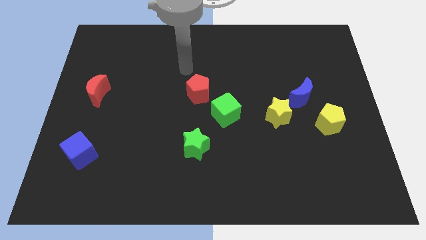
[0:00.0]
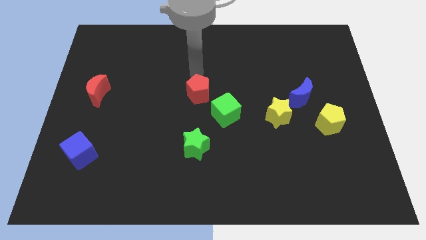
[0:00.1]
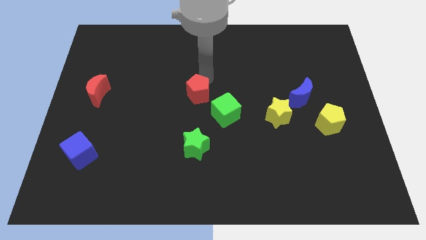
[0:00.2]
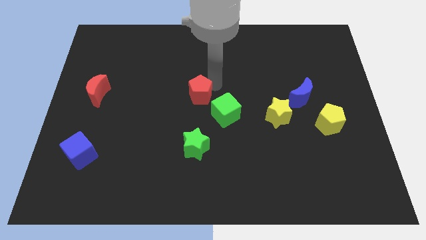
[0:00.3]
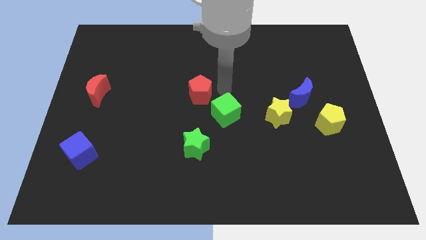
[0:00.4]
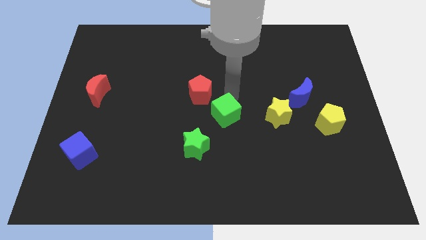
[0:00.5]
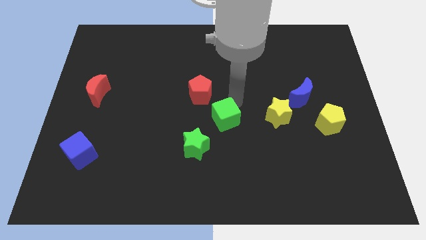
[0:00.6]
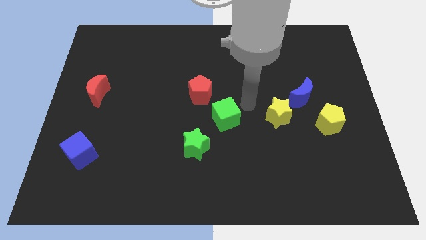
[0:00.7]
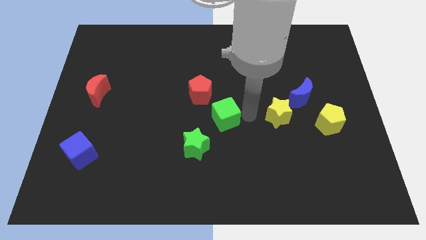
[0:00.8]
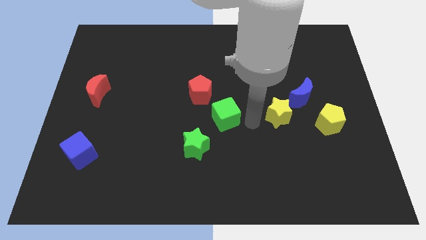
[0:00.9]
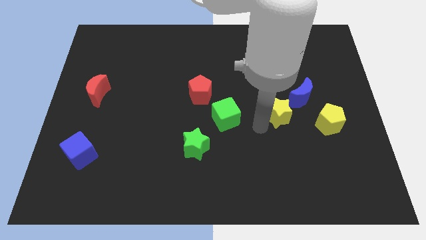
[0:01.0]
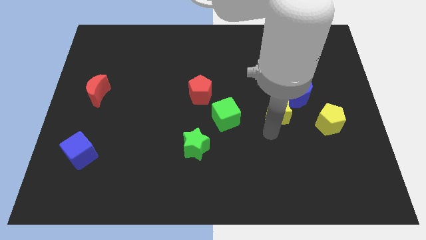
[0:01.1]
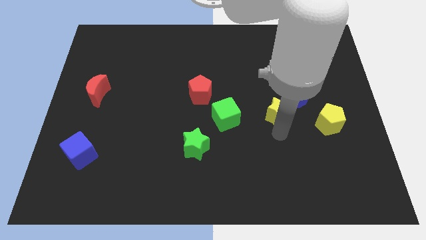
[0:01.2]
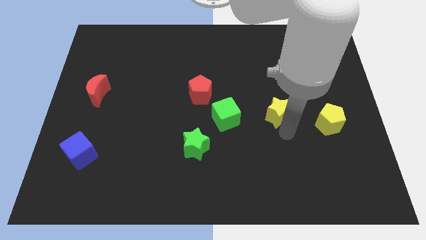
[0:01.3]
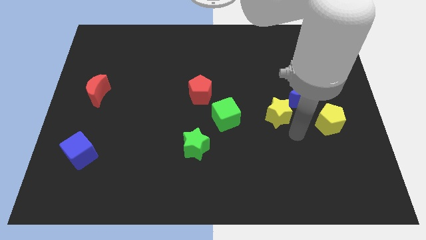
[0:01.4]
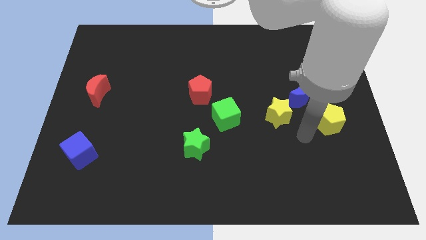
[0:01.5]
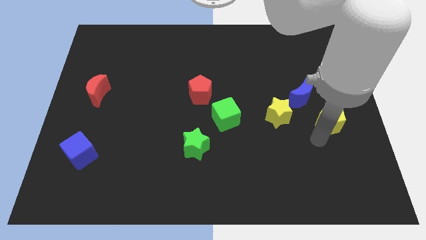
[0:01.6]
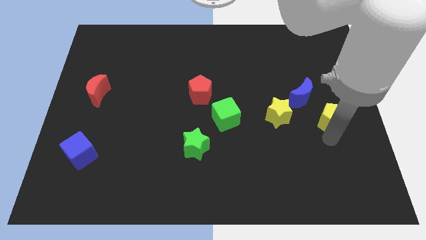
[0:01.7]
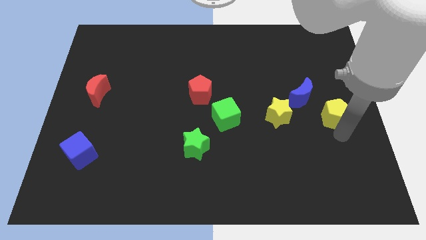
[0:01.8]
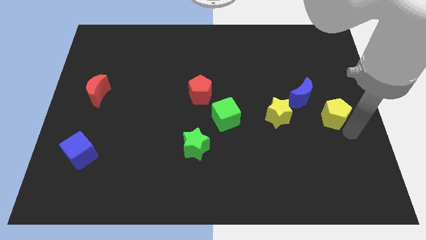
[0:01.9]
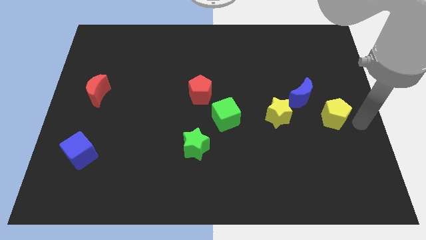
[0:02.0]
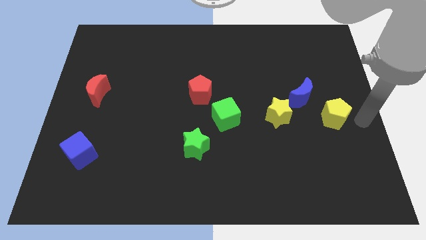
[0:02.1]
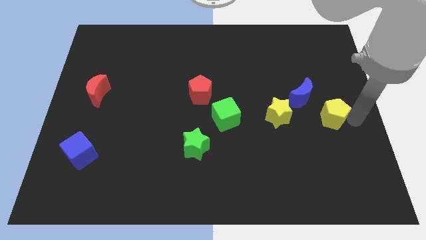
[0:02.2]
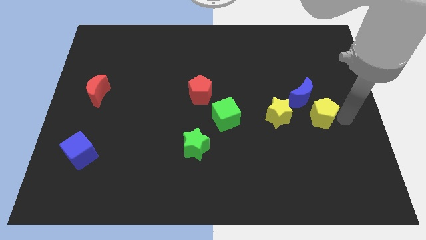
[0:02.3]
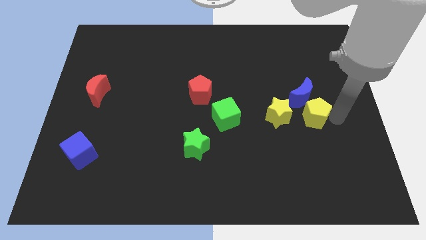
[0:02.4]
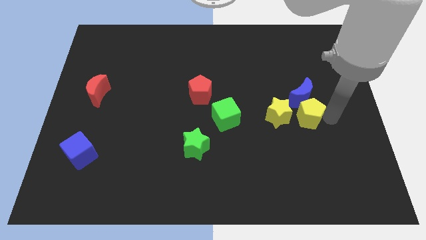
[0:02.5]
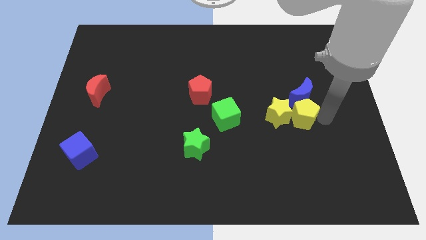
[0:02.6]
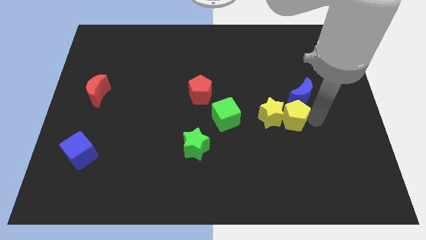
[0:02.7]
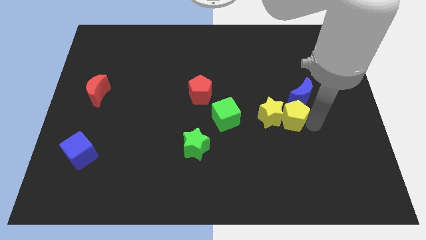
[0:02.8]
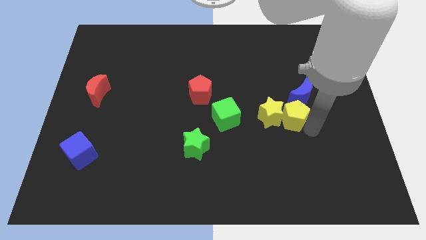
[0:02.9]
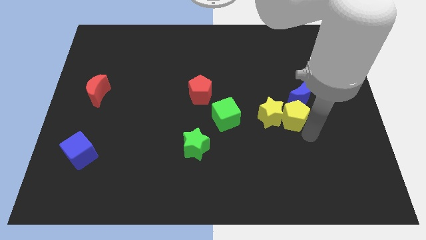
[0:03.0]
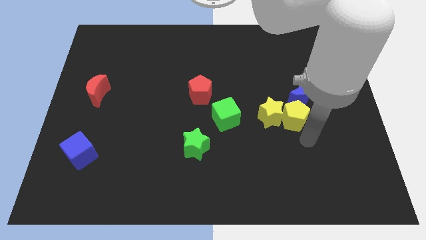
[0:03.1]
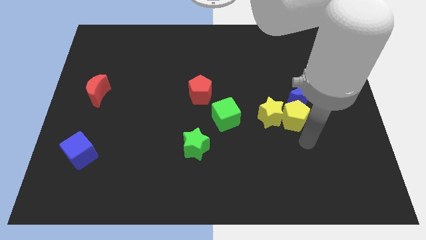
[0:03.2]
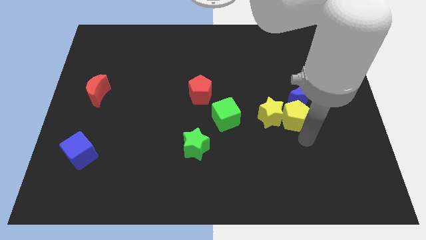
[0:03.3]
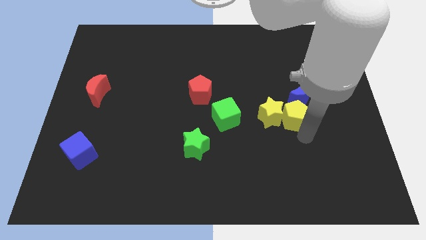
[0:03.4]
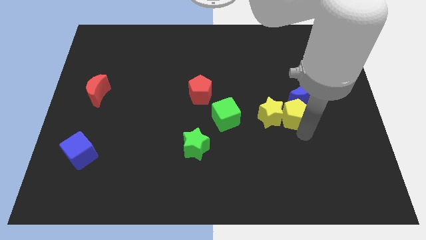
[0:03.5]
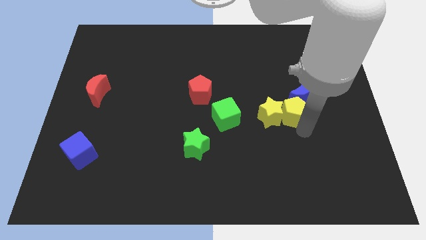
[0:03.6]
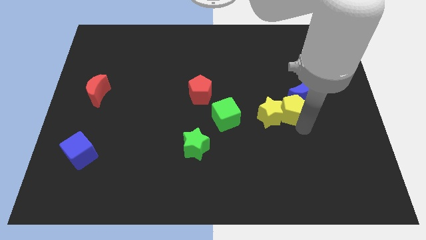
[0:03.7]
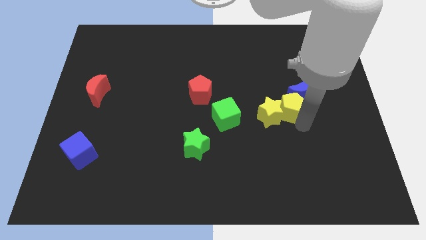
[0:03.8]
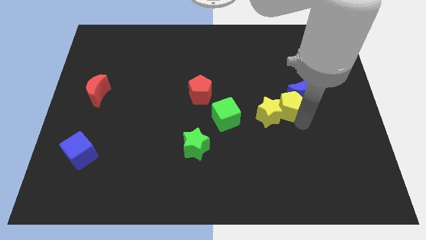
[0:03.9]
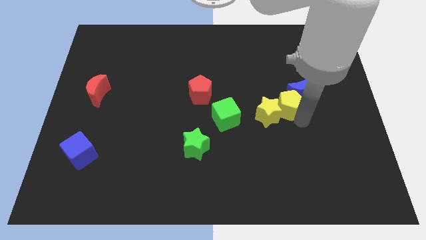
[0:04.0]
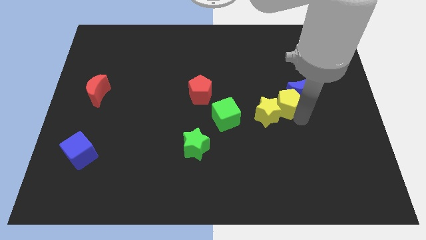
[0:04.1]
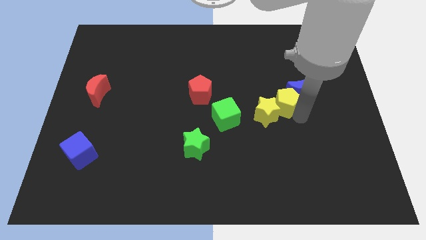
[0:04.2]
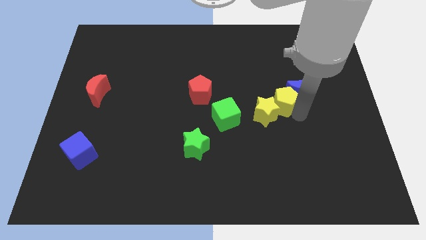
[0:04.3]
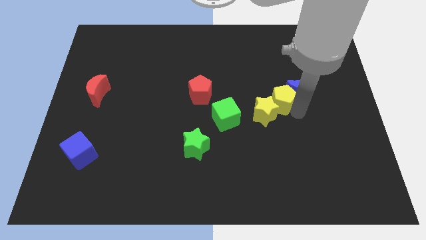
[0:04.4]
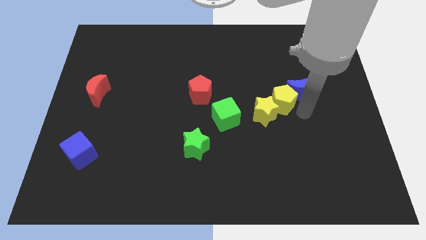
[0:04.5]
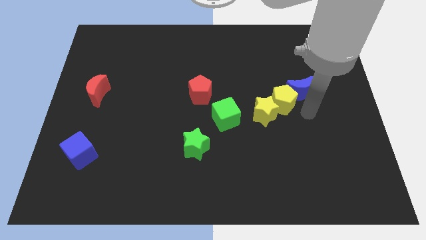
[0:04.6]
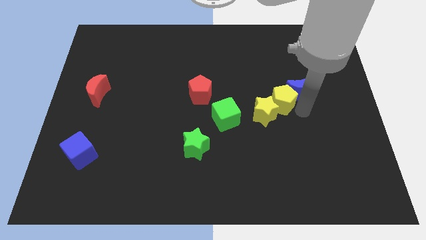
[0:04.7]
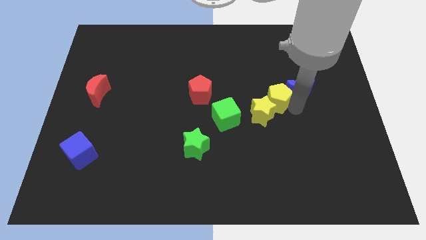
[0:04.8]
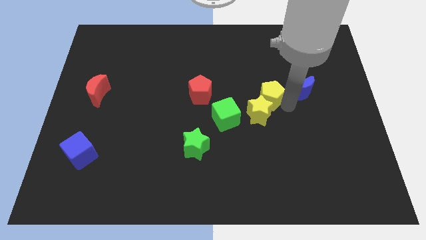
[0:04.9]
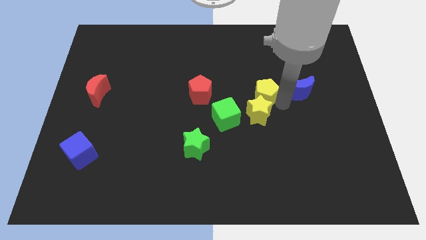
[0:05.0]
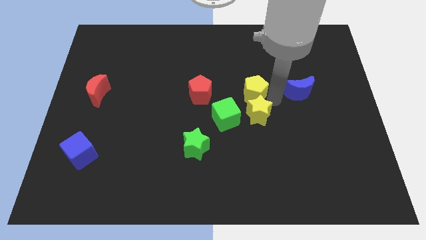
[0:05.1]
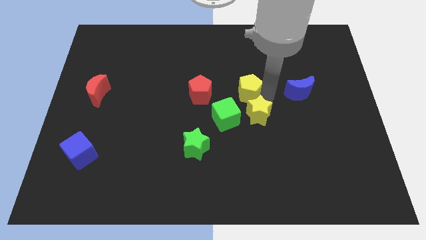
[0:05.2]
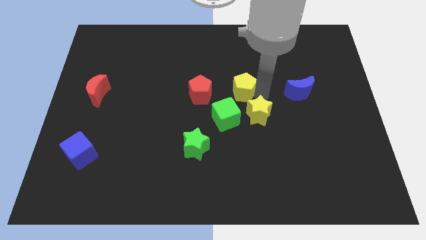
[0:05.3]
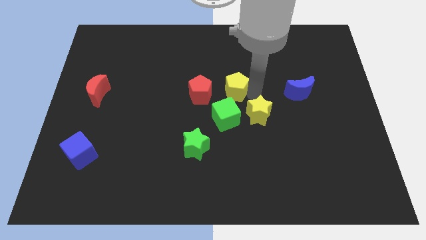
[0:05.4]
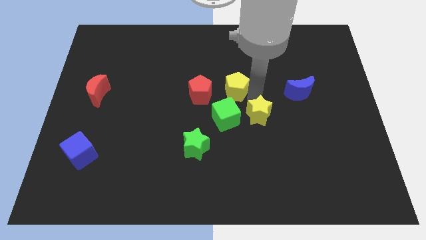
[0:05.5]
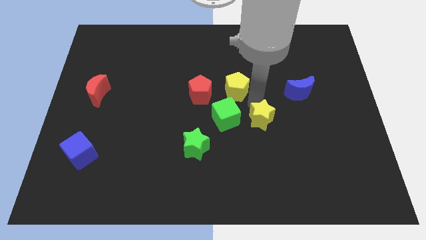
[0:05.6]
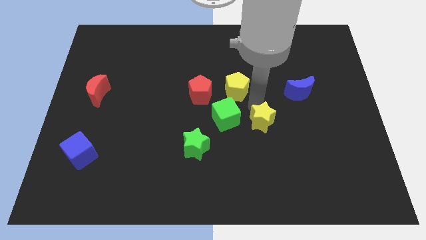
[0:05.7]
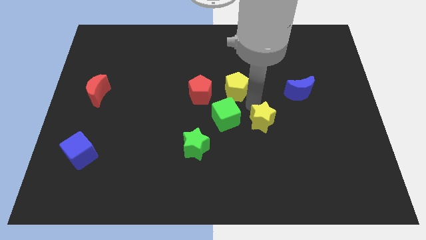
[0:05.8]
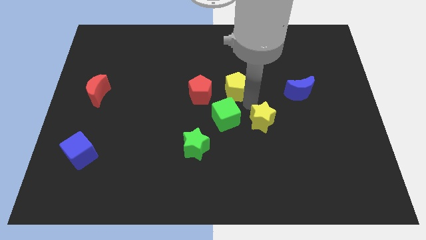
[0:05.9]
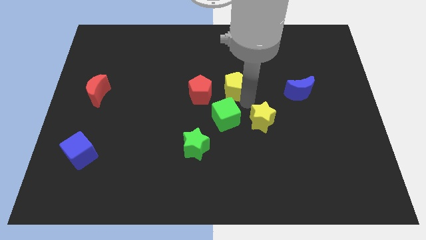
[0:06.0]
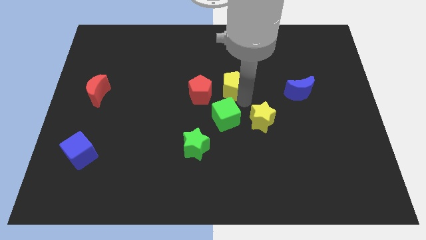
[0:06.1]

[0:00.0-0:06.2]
put the yellow pentagon to the top right of the red pentagon
